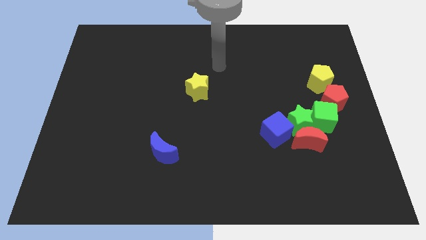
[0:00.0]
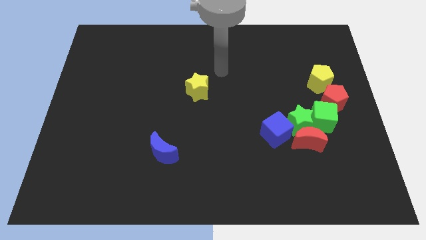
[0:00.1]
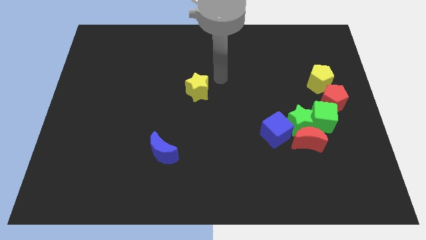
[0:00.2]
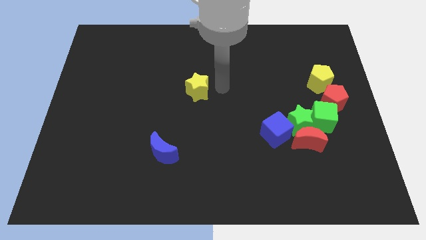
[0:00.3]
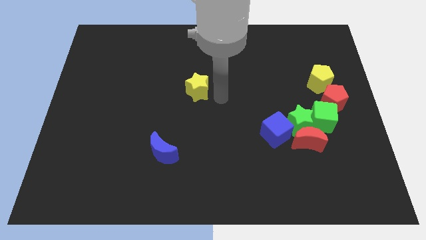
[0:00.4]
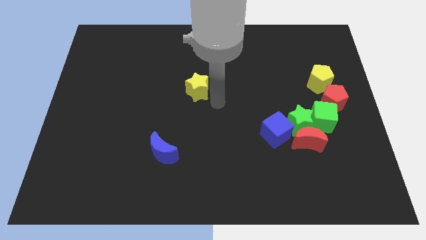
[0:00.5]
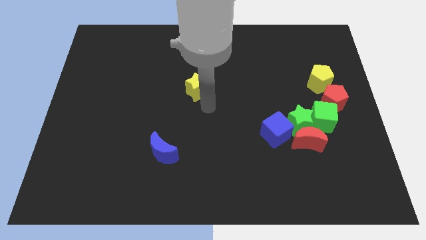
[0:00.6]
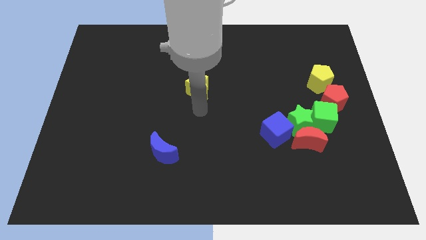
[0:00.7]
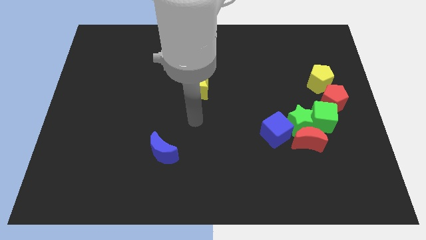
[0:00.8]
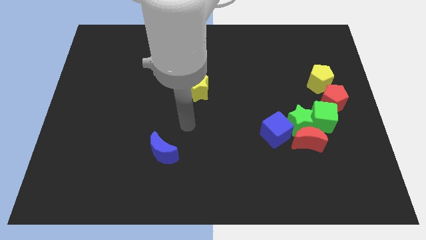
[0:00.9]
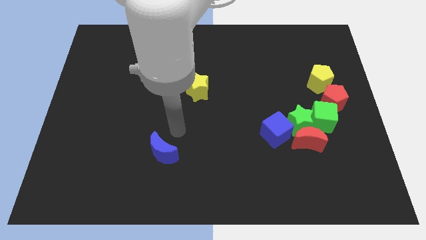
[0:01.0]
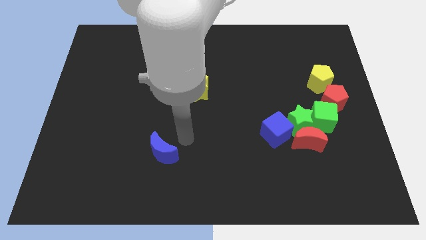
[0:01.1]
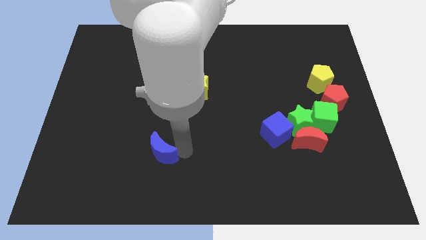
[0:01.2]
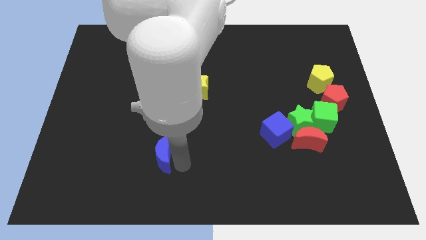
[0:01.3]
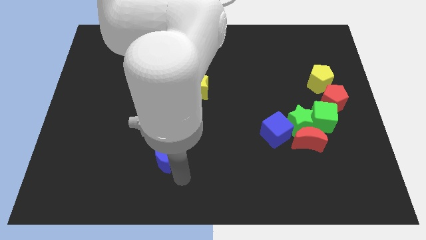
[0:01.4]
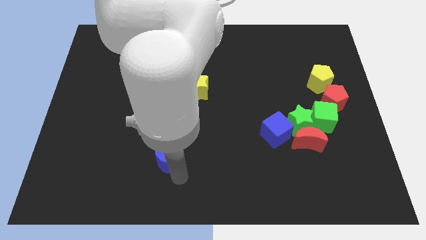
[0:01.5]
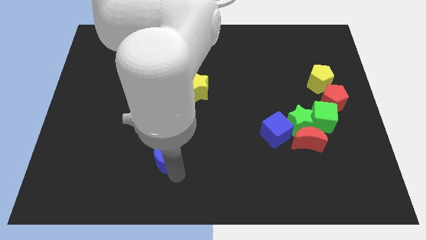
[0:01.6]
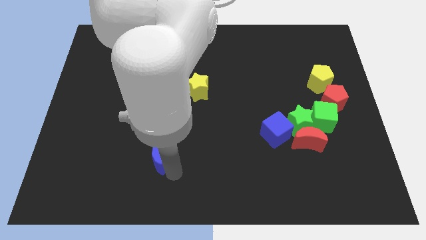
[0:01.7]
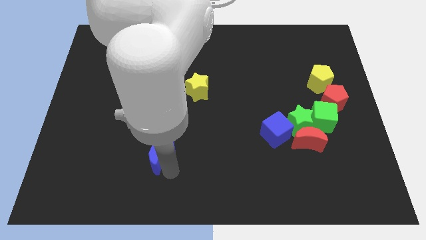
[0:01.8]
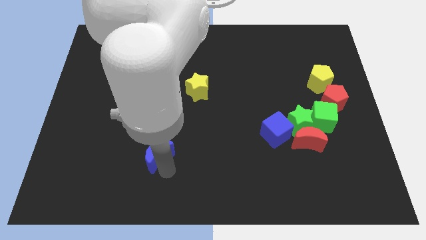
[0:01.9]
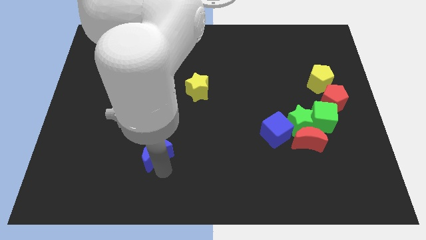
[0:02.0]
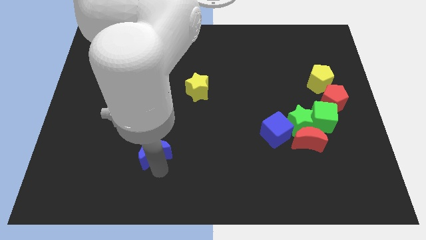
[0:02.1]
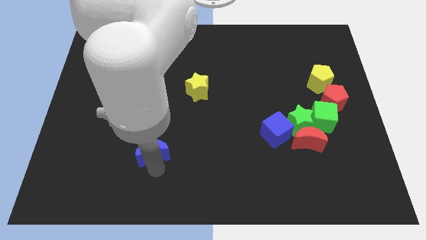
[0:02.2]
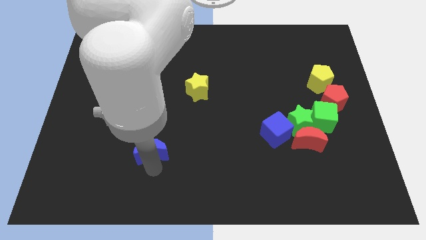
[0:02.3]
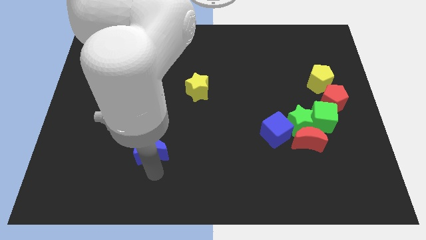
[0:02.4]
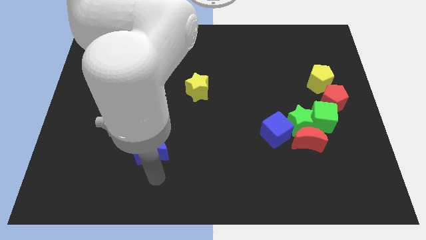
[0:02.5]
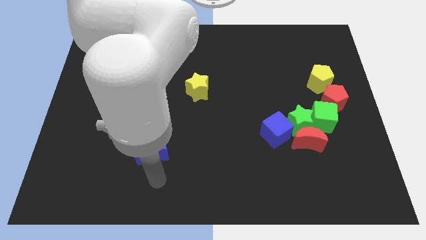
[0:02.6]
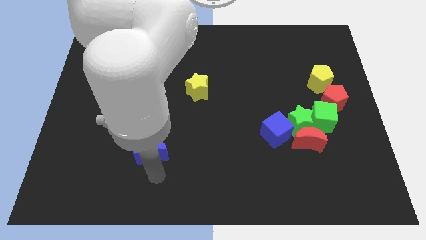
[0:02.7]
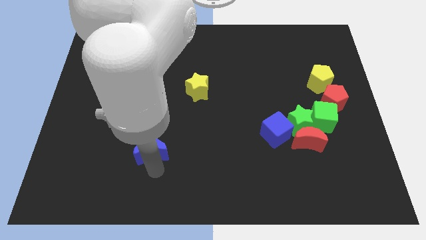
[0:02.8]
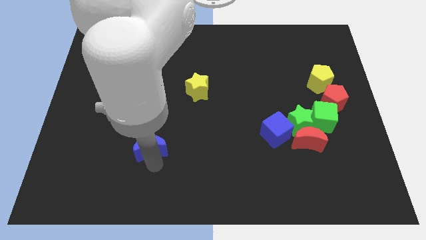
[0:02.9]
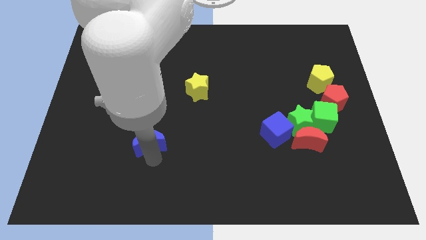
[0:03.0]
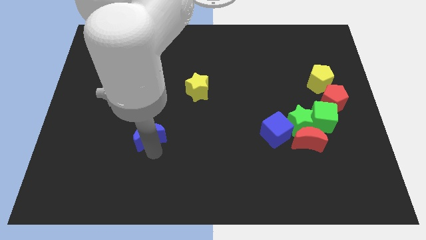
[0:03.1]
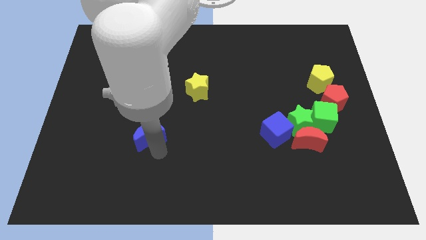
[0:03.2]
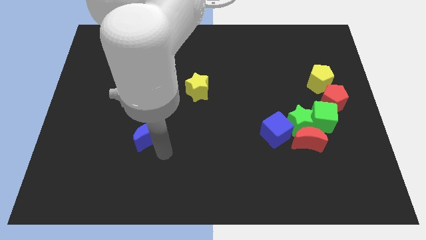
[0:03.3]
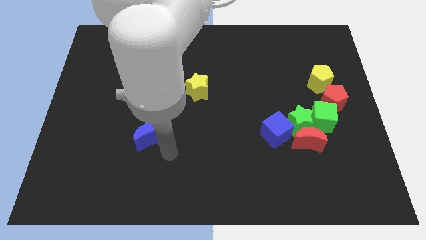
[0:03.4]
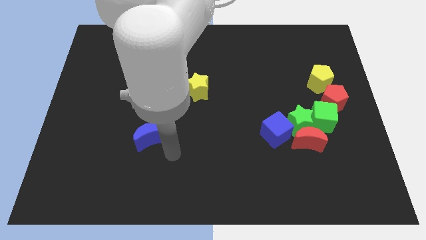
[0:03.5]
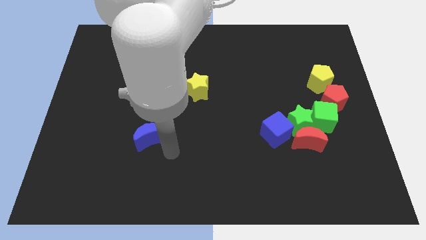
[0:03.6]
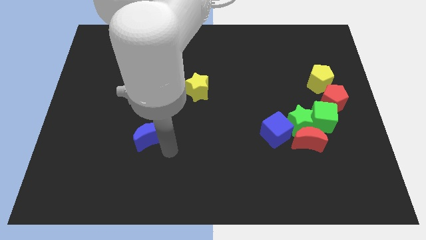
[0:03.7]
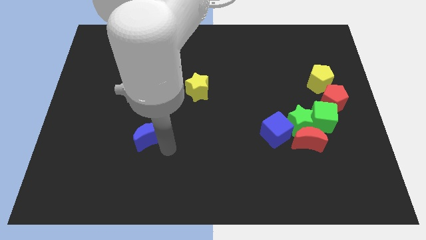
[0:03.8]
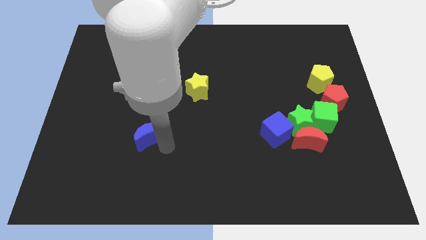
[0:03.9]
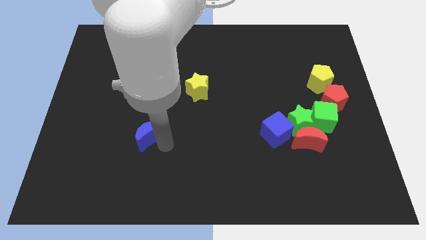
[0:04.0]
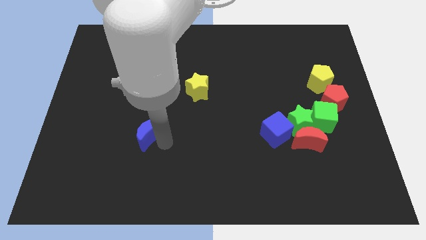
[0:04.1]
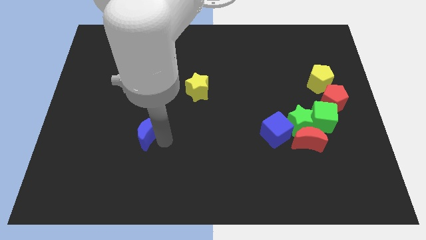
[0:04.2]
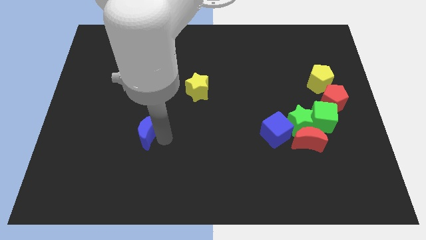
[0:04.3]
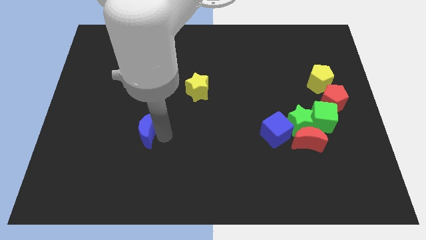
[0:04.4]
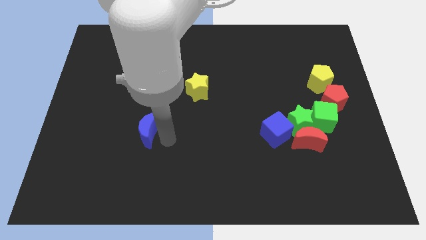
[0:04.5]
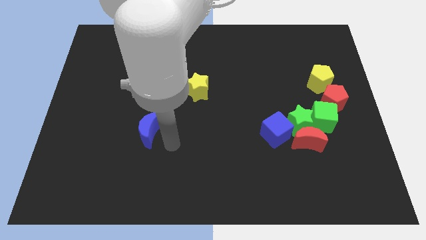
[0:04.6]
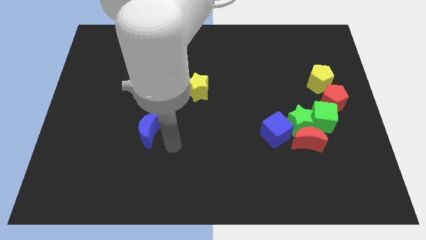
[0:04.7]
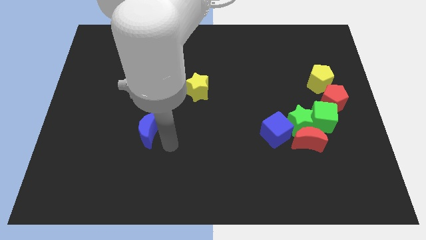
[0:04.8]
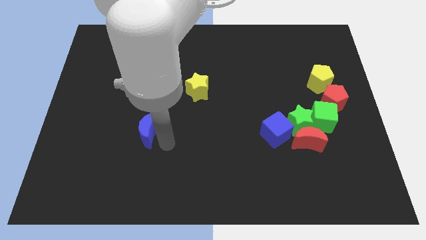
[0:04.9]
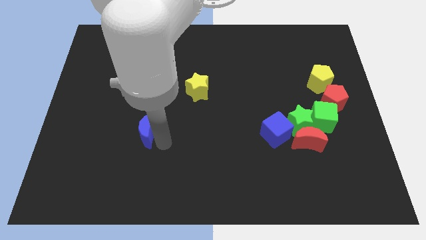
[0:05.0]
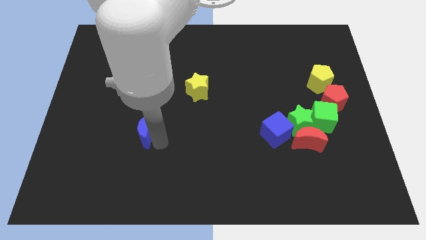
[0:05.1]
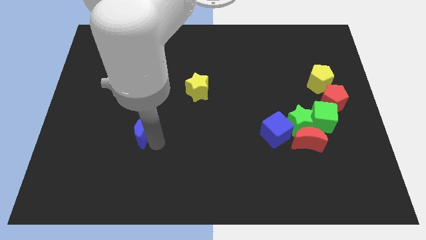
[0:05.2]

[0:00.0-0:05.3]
slightly move the blue moon diagonally upwards and to the left

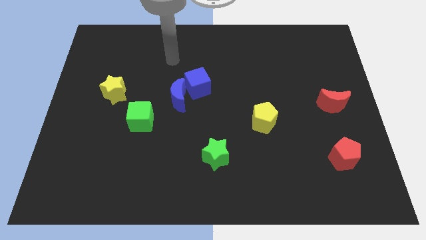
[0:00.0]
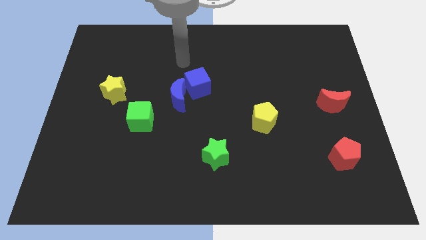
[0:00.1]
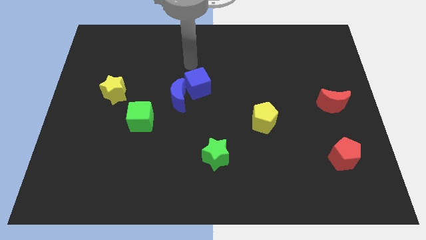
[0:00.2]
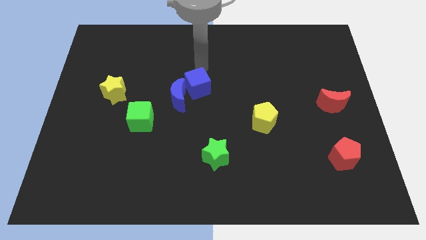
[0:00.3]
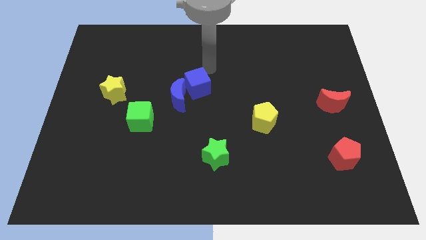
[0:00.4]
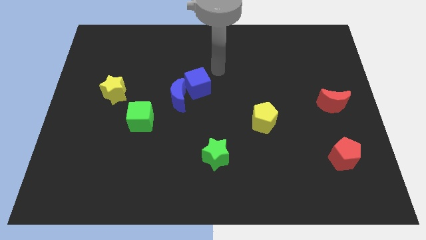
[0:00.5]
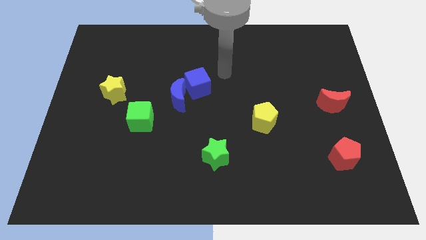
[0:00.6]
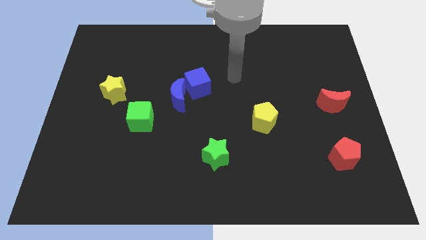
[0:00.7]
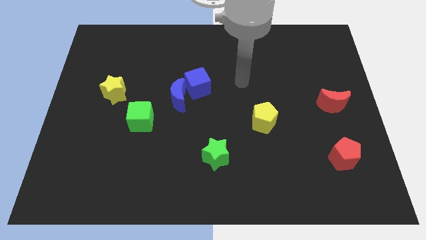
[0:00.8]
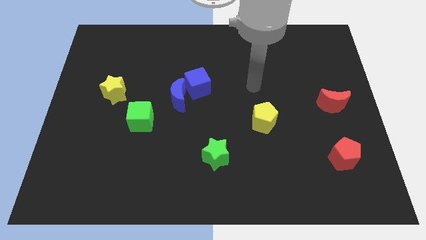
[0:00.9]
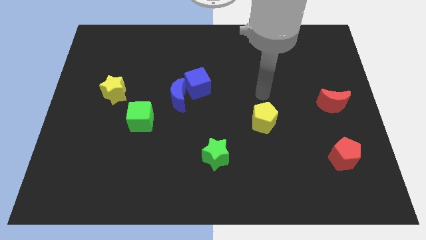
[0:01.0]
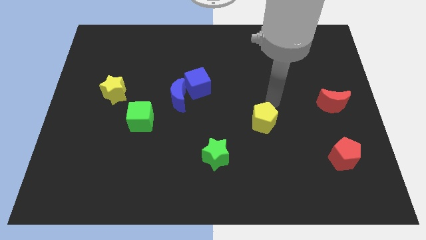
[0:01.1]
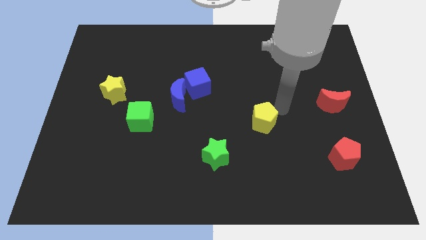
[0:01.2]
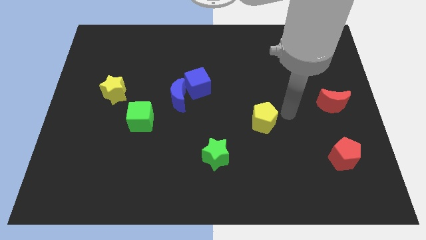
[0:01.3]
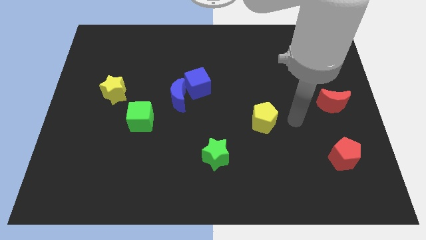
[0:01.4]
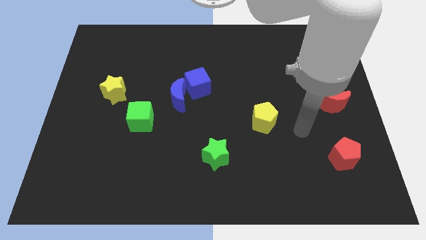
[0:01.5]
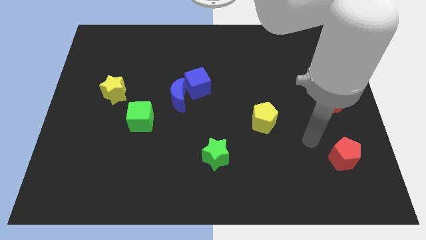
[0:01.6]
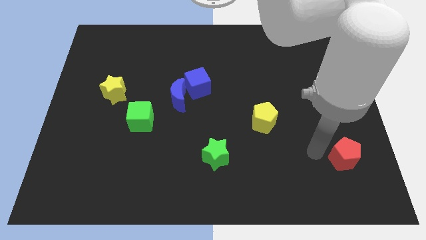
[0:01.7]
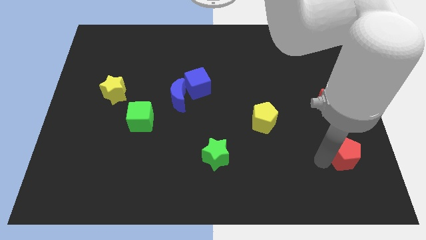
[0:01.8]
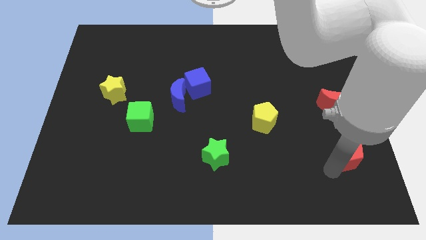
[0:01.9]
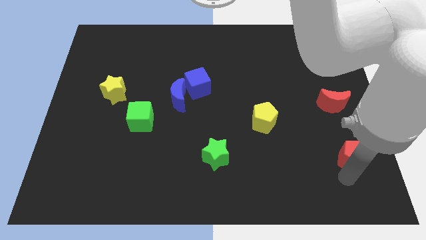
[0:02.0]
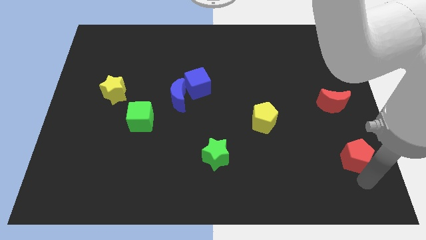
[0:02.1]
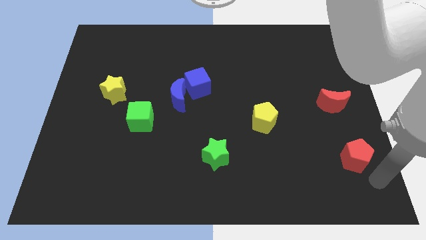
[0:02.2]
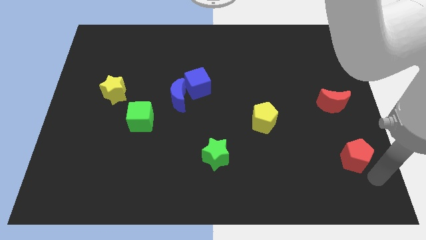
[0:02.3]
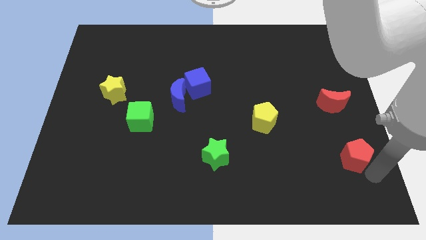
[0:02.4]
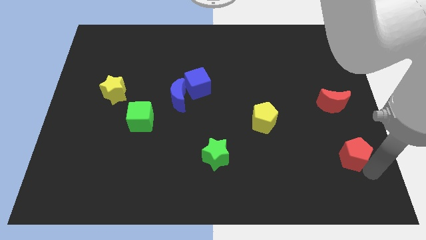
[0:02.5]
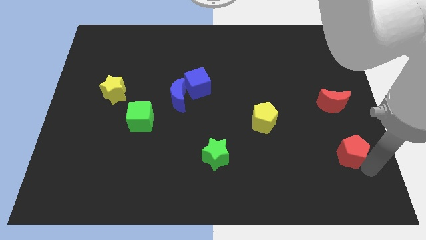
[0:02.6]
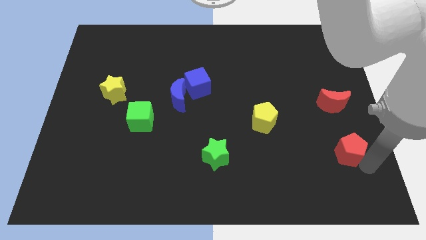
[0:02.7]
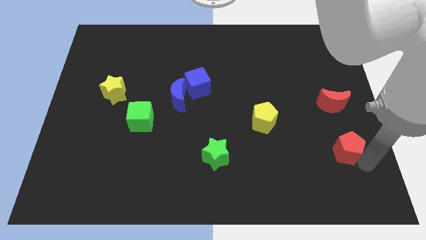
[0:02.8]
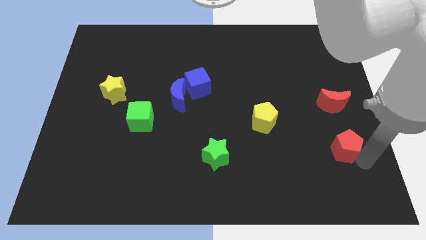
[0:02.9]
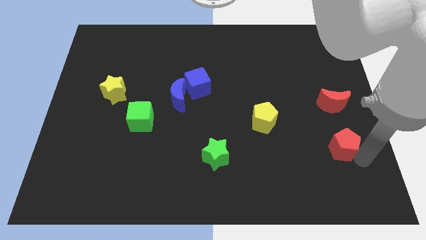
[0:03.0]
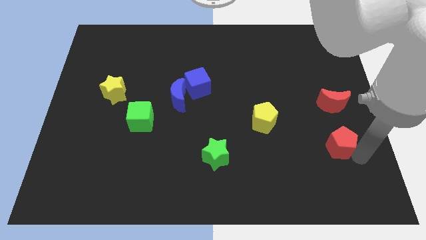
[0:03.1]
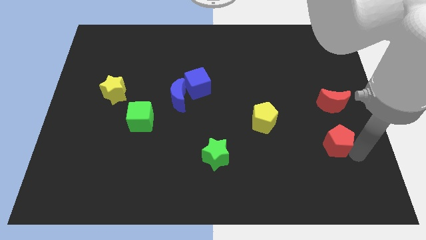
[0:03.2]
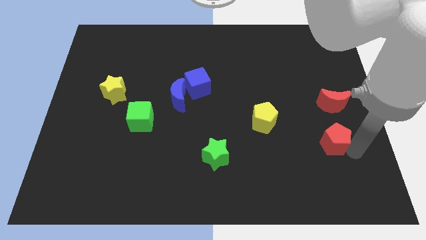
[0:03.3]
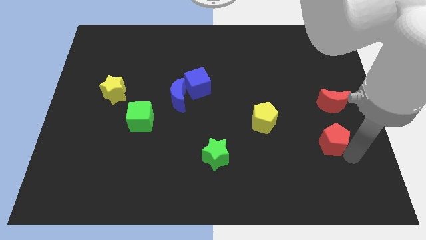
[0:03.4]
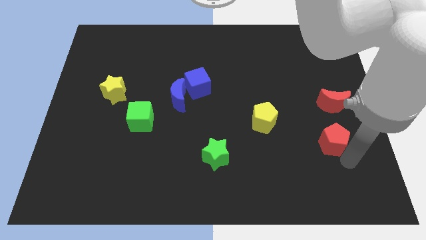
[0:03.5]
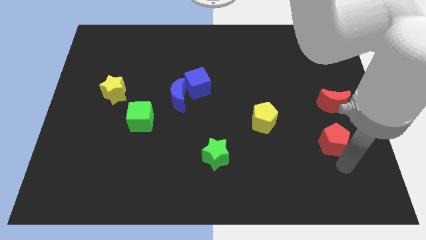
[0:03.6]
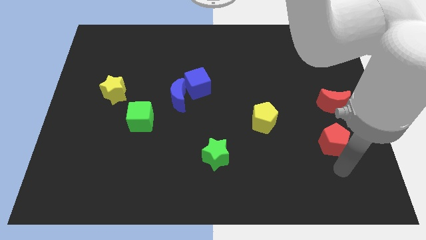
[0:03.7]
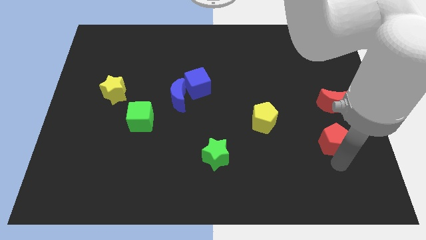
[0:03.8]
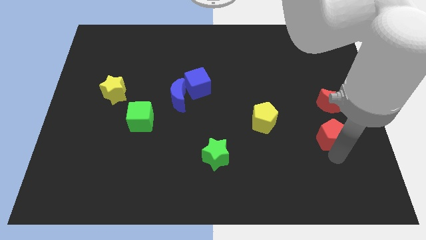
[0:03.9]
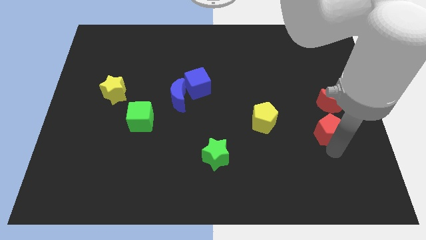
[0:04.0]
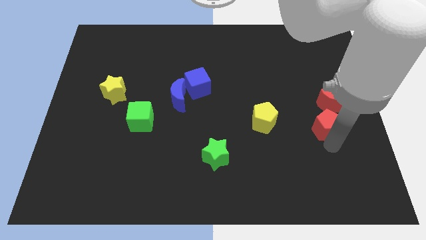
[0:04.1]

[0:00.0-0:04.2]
slightly slide the red pentagon up
